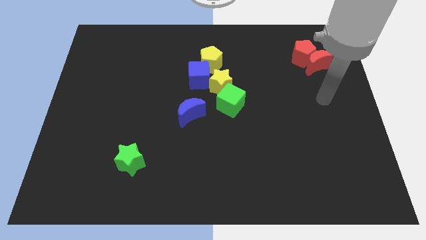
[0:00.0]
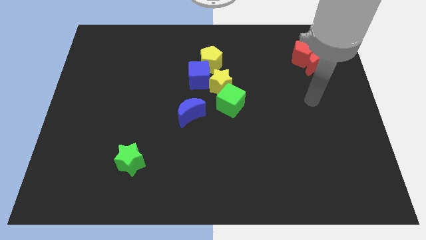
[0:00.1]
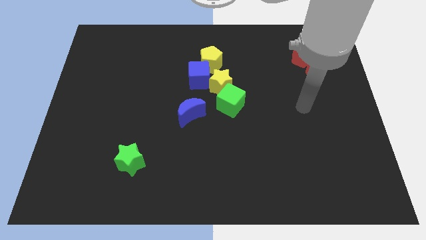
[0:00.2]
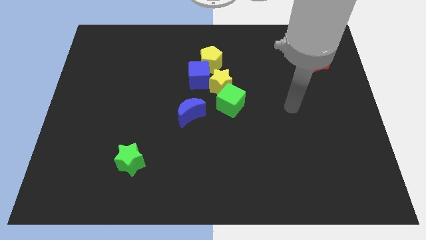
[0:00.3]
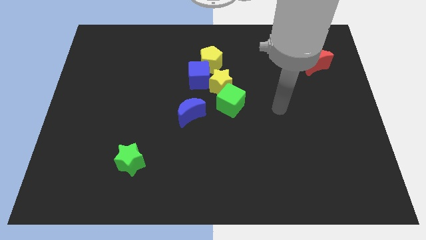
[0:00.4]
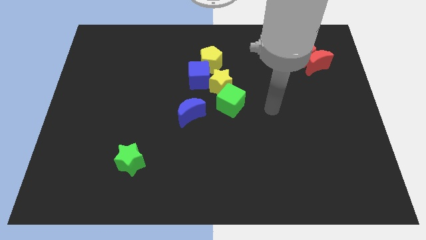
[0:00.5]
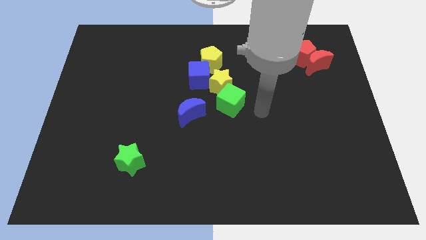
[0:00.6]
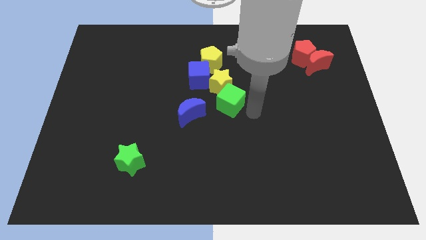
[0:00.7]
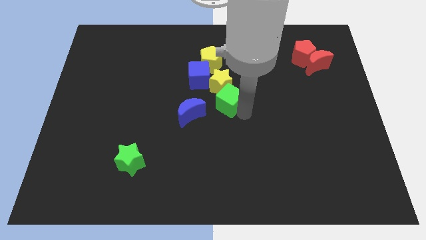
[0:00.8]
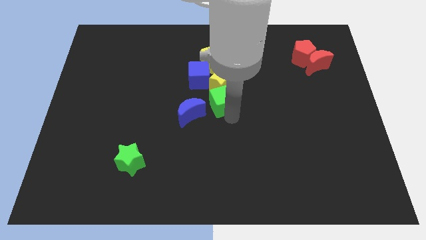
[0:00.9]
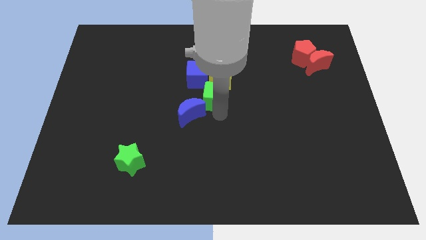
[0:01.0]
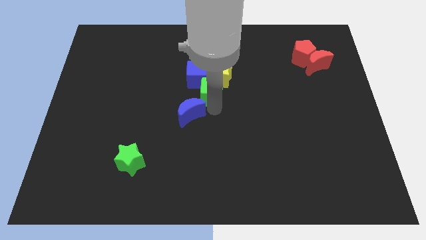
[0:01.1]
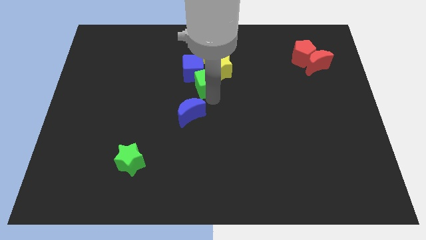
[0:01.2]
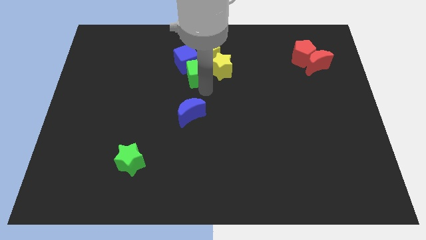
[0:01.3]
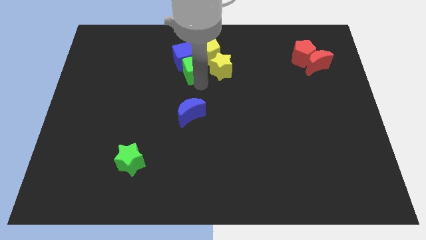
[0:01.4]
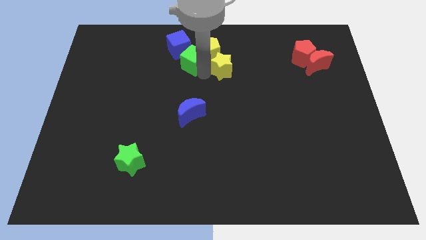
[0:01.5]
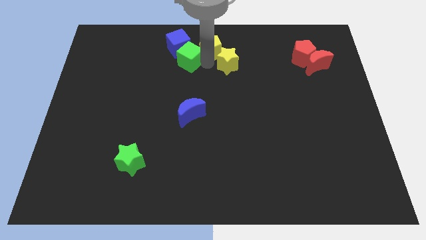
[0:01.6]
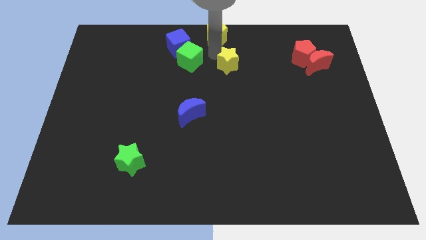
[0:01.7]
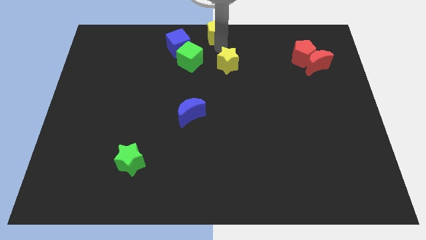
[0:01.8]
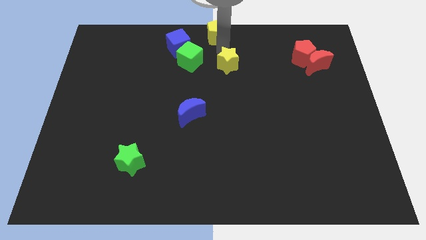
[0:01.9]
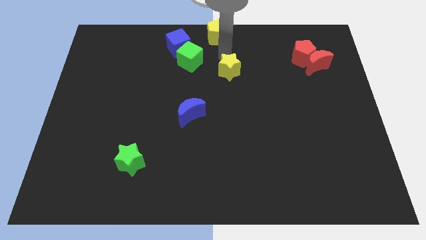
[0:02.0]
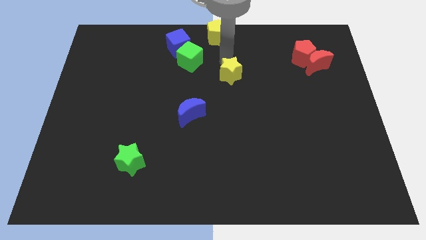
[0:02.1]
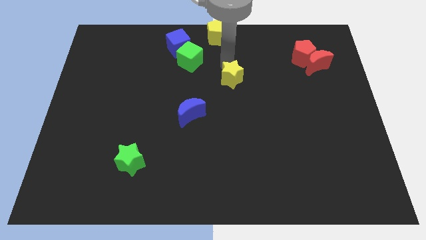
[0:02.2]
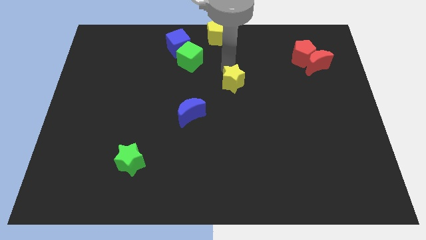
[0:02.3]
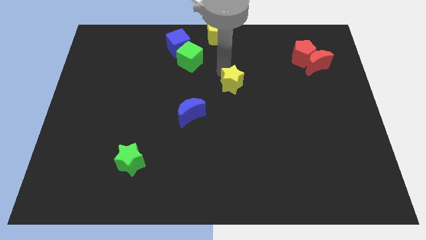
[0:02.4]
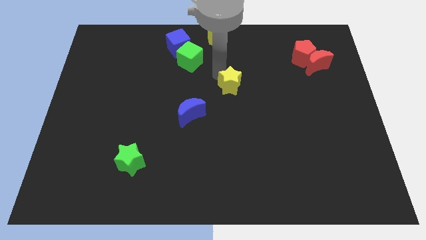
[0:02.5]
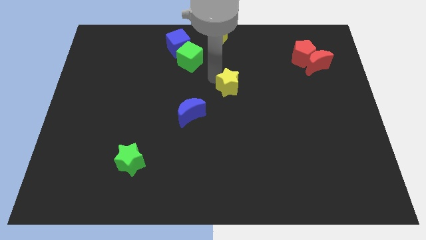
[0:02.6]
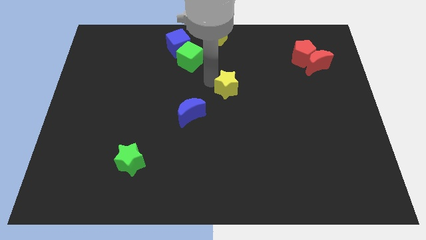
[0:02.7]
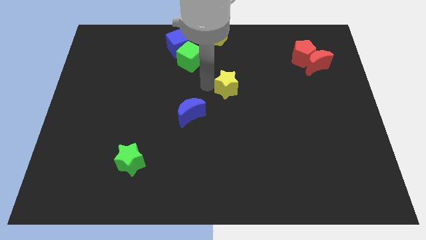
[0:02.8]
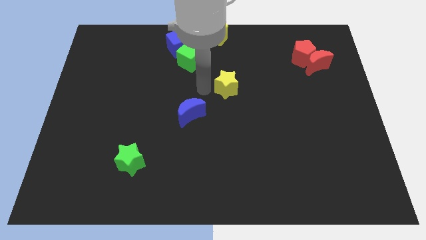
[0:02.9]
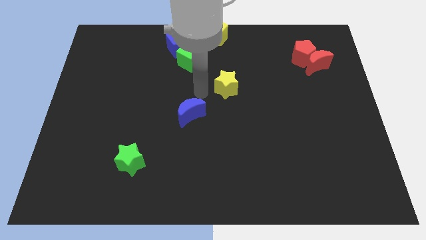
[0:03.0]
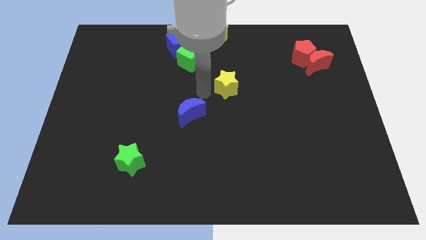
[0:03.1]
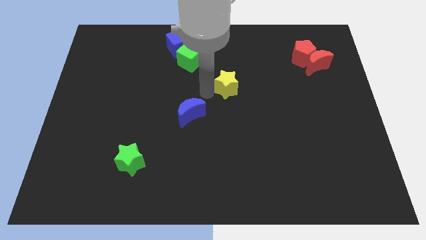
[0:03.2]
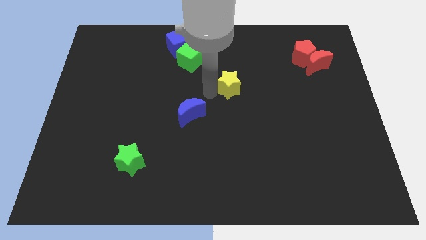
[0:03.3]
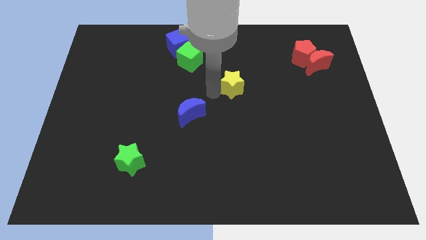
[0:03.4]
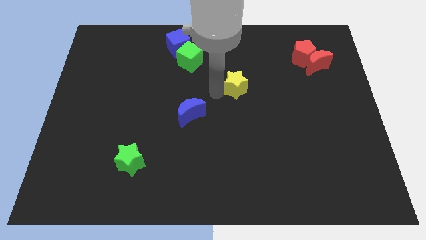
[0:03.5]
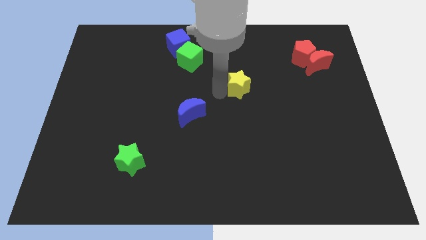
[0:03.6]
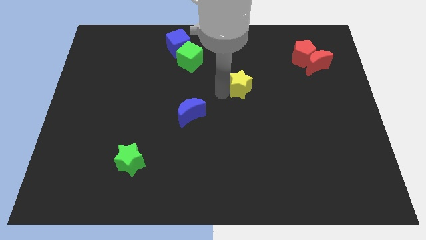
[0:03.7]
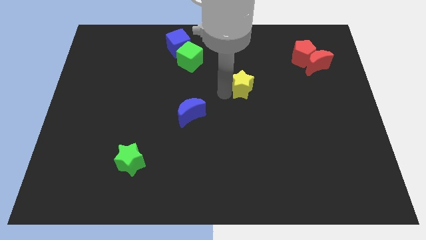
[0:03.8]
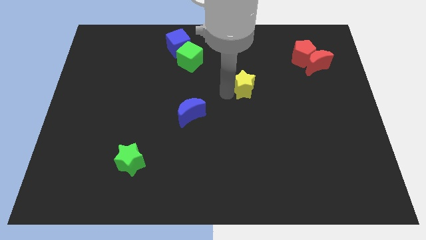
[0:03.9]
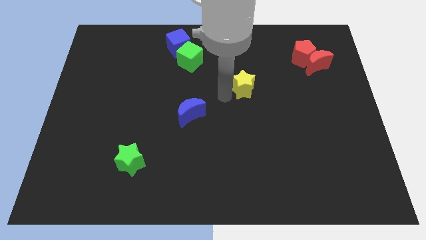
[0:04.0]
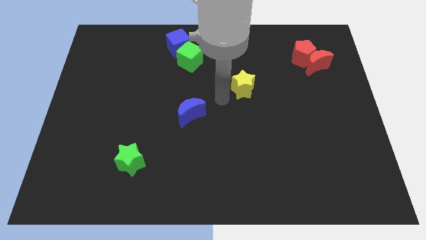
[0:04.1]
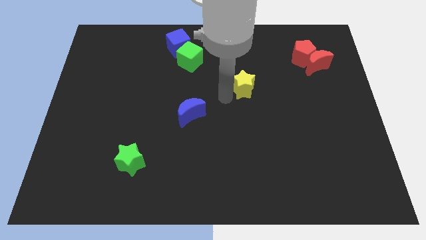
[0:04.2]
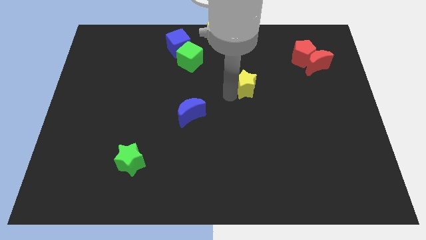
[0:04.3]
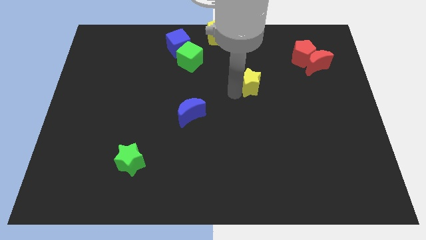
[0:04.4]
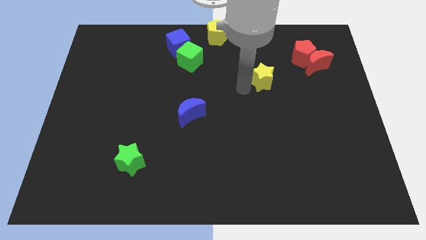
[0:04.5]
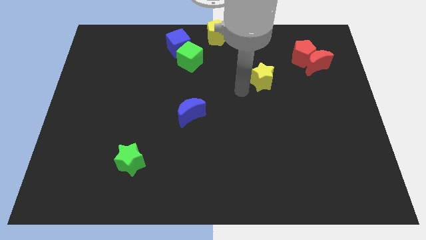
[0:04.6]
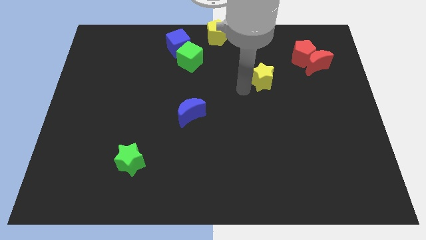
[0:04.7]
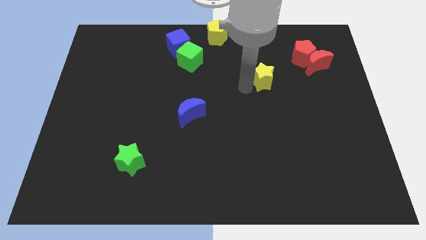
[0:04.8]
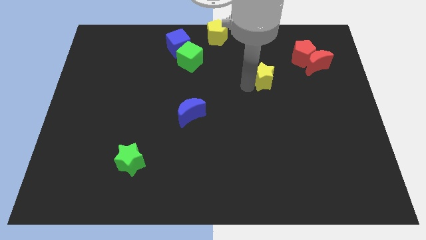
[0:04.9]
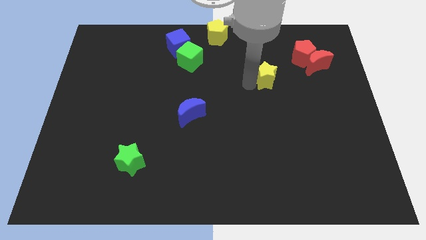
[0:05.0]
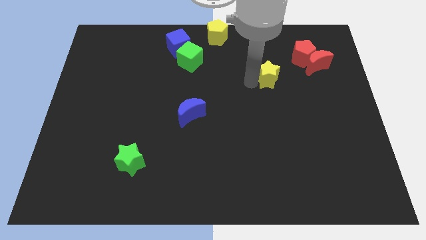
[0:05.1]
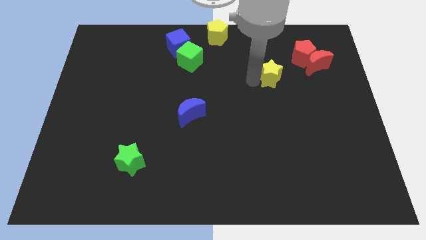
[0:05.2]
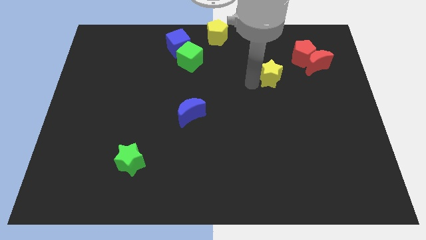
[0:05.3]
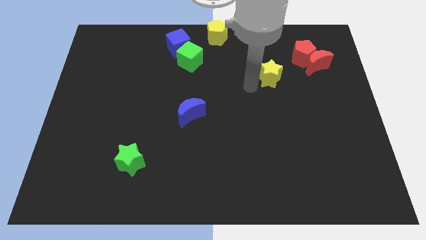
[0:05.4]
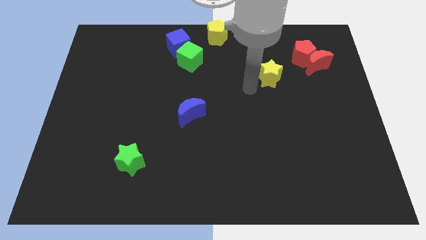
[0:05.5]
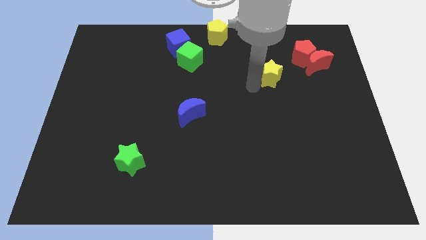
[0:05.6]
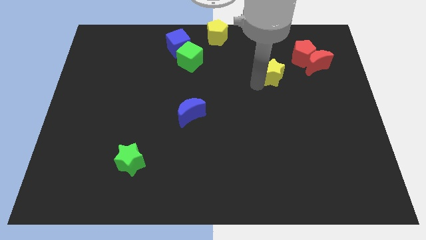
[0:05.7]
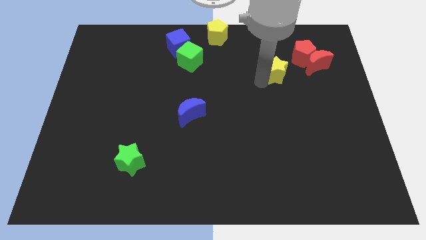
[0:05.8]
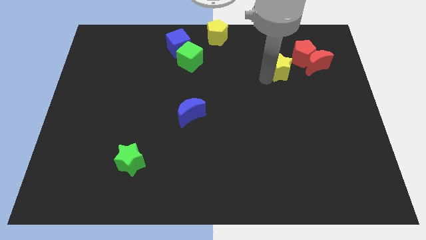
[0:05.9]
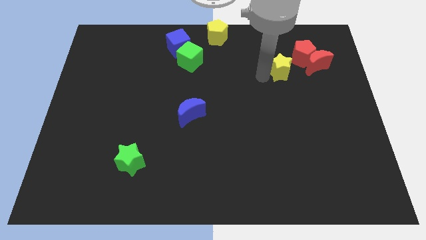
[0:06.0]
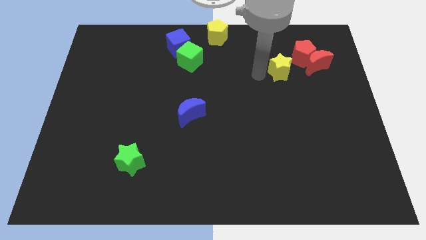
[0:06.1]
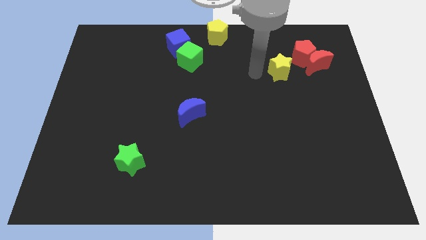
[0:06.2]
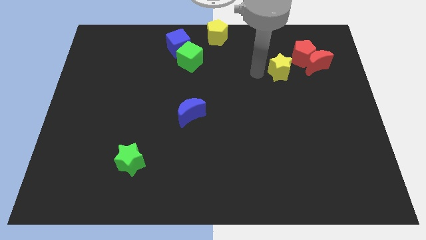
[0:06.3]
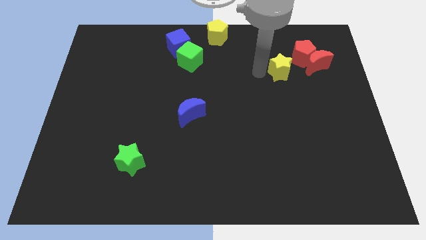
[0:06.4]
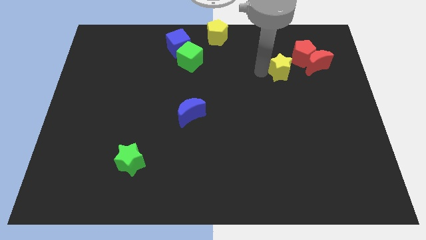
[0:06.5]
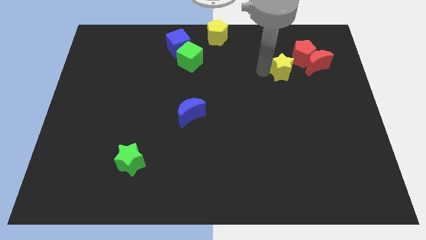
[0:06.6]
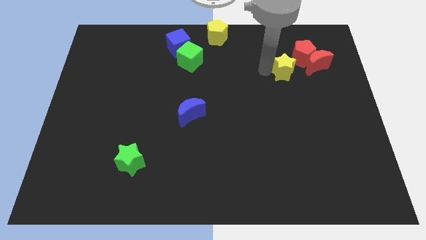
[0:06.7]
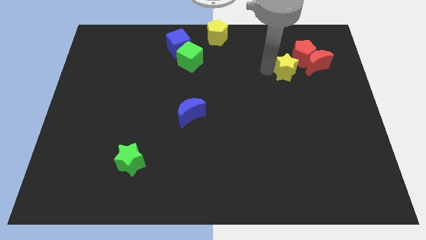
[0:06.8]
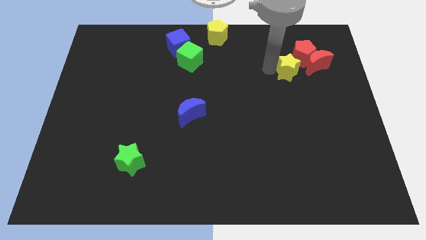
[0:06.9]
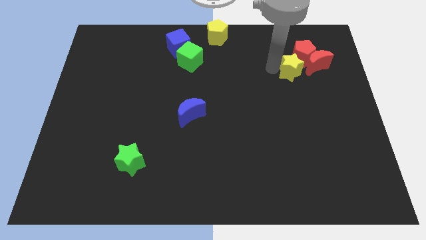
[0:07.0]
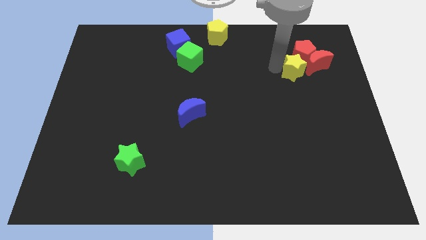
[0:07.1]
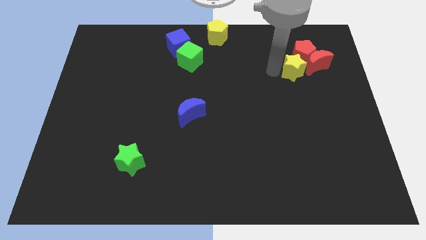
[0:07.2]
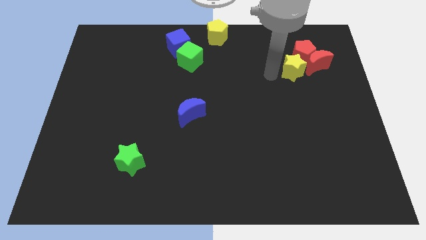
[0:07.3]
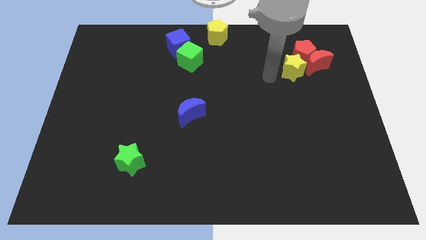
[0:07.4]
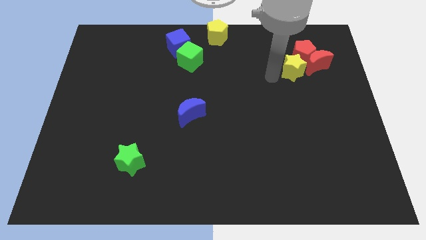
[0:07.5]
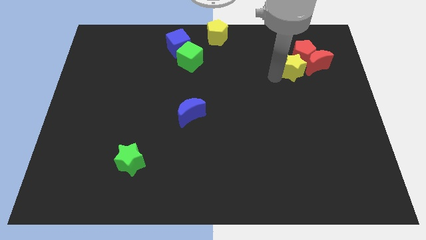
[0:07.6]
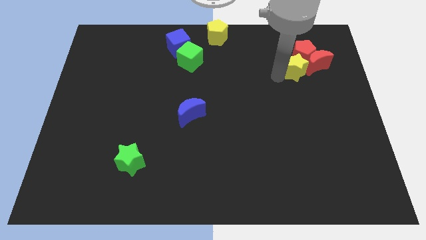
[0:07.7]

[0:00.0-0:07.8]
move the yellow star towards the red moon
